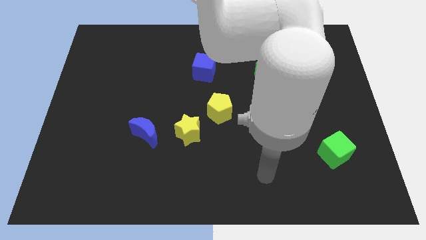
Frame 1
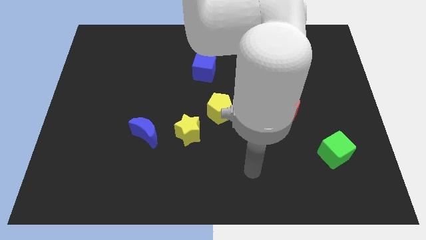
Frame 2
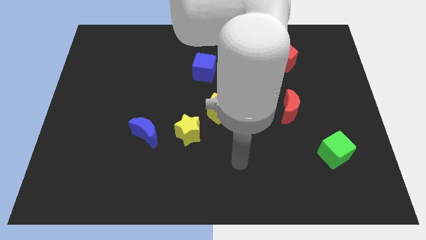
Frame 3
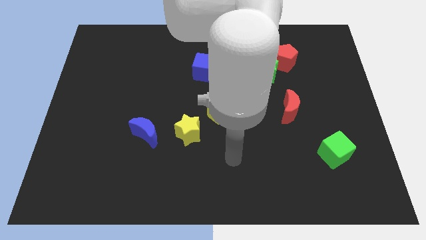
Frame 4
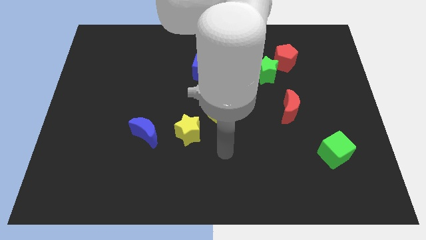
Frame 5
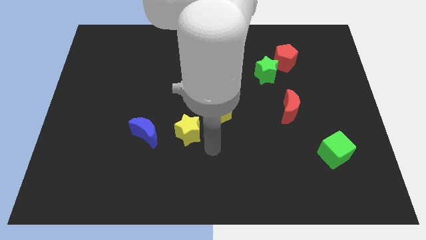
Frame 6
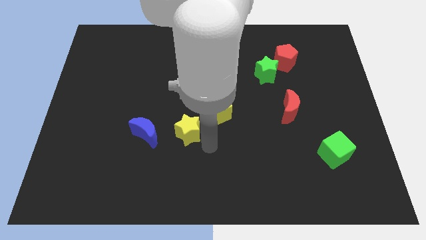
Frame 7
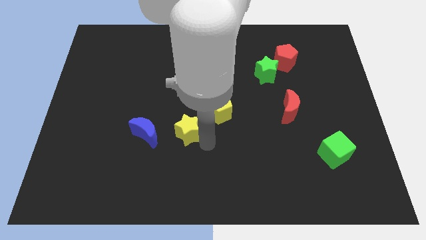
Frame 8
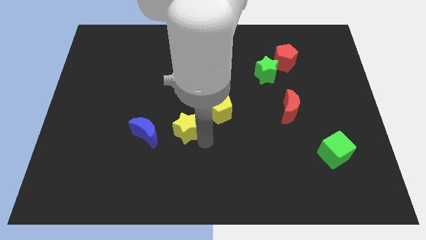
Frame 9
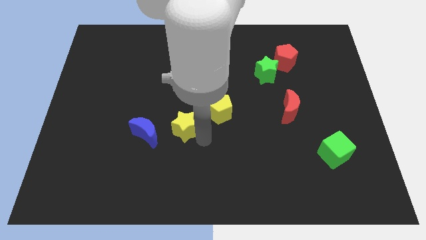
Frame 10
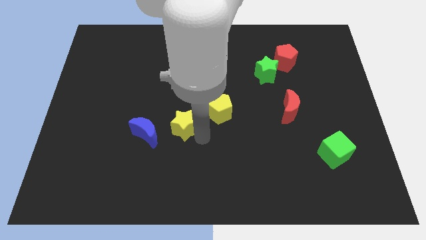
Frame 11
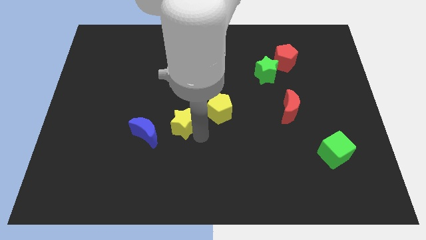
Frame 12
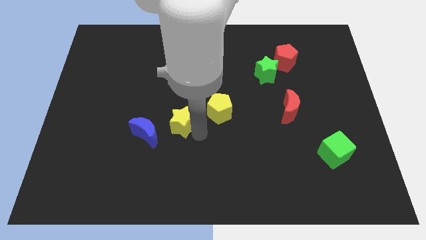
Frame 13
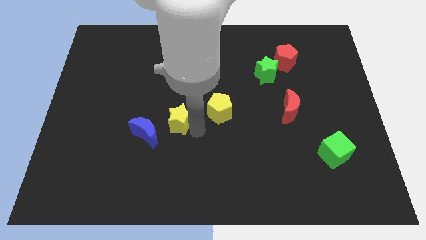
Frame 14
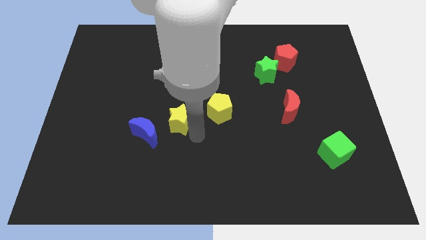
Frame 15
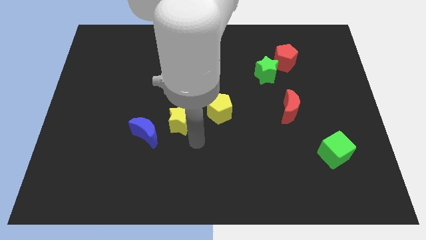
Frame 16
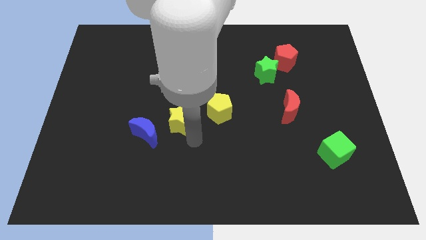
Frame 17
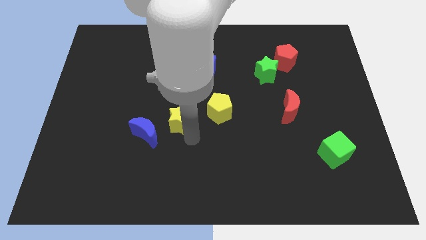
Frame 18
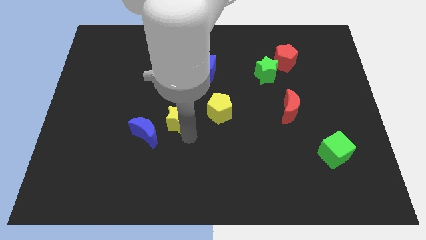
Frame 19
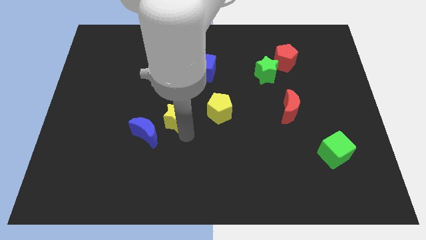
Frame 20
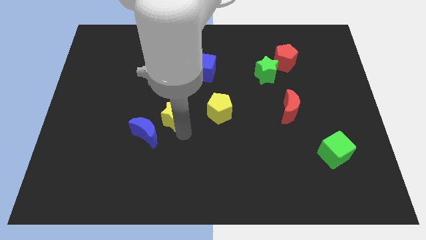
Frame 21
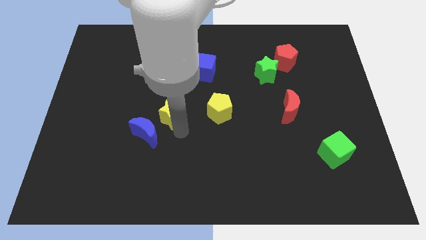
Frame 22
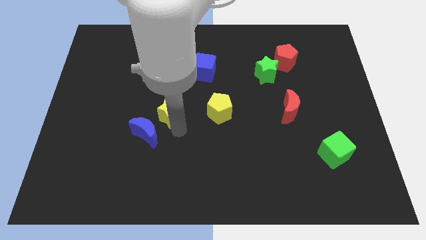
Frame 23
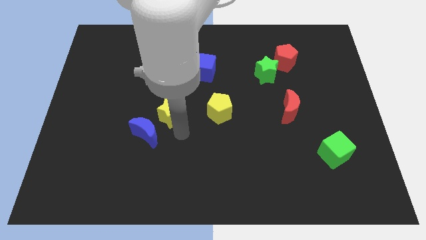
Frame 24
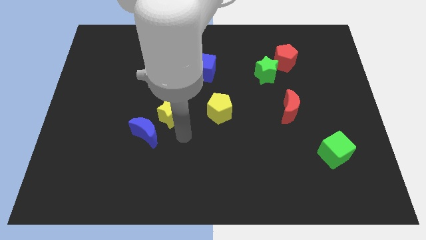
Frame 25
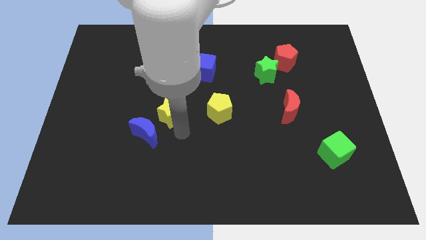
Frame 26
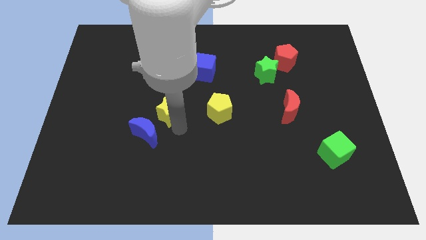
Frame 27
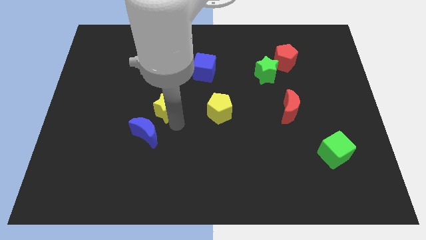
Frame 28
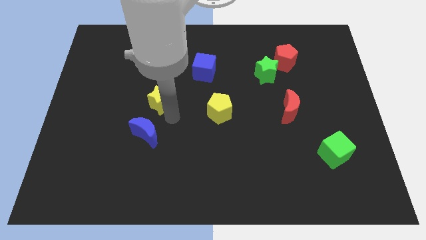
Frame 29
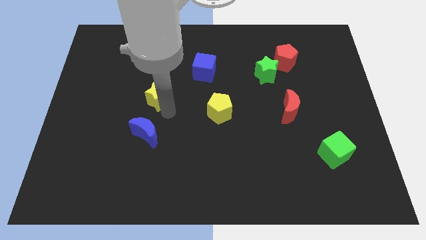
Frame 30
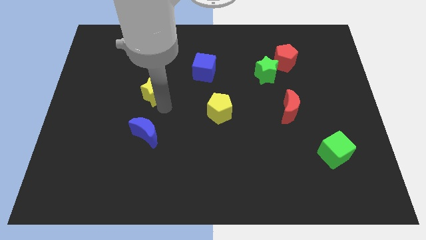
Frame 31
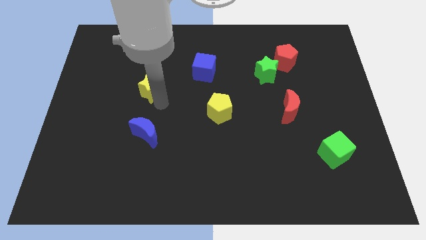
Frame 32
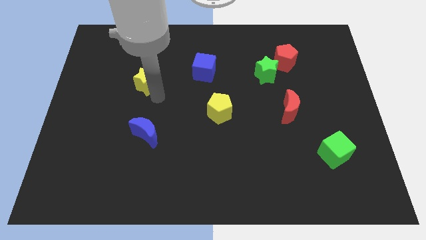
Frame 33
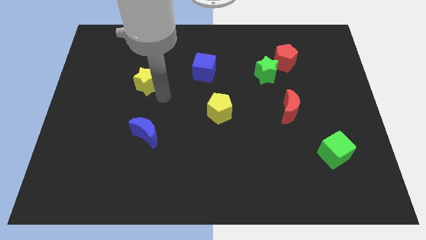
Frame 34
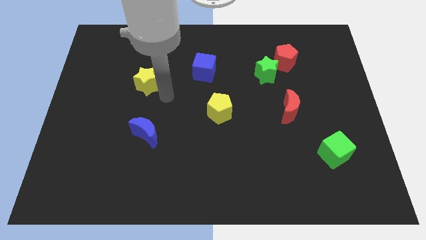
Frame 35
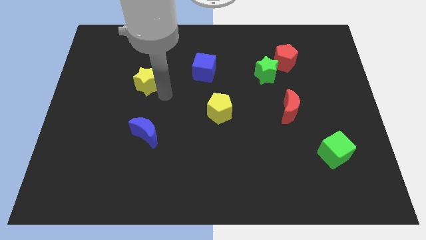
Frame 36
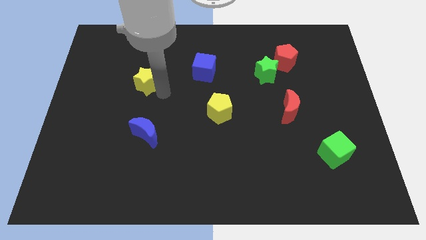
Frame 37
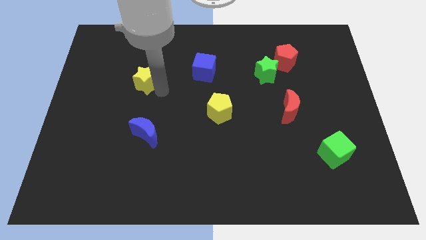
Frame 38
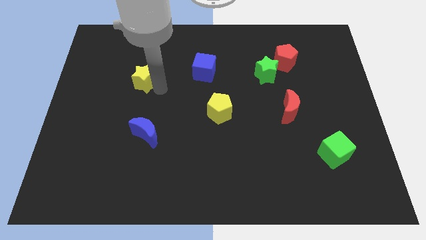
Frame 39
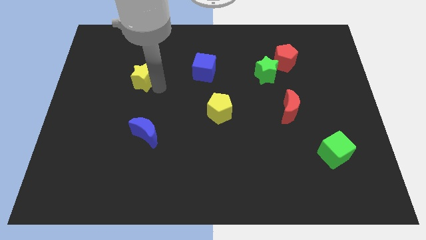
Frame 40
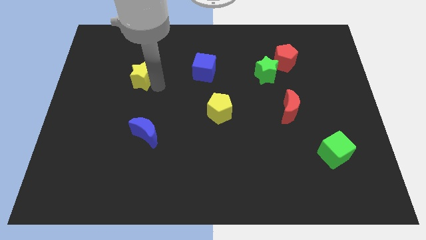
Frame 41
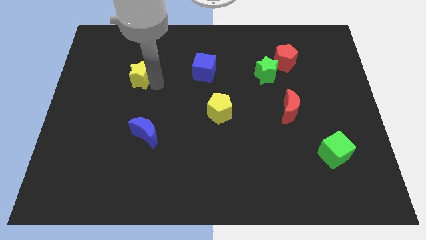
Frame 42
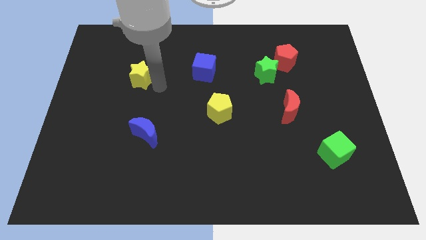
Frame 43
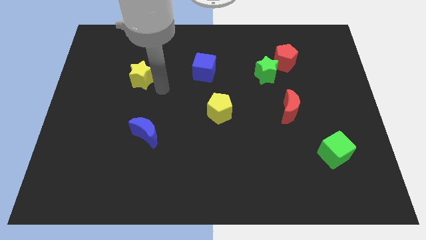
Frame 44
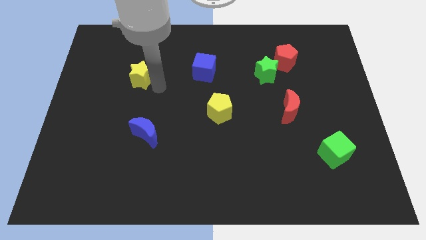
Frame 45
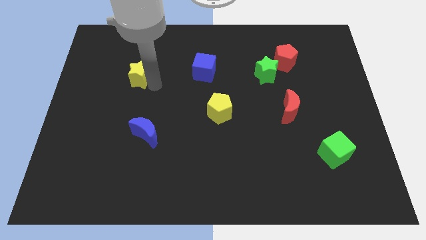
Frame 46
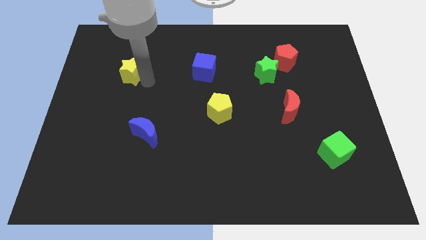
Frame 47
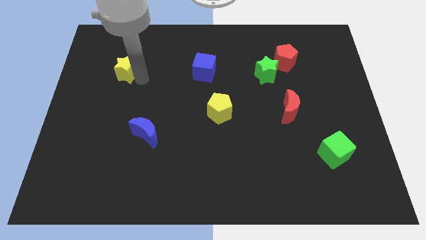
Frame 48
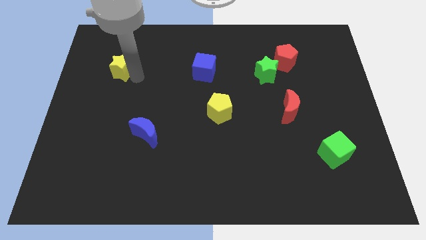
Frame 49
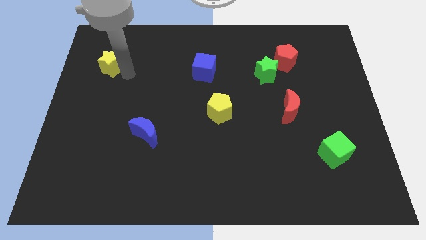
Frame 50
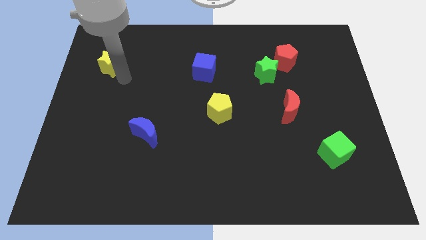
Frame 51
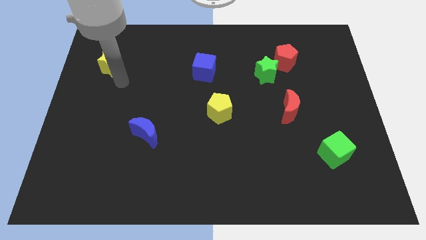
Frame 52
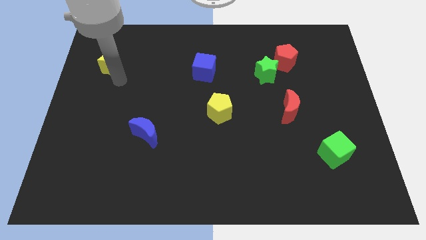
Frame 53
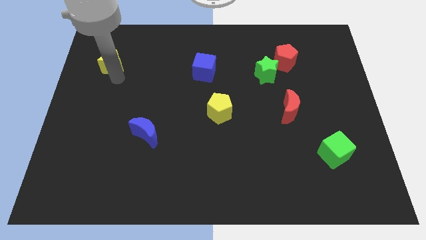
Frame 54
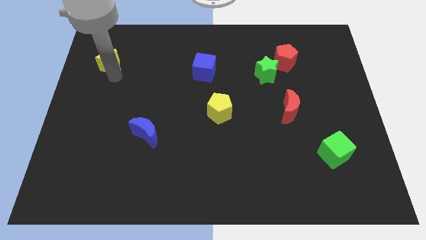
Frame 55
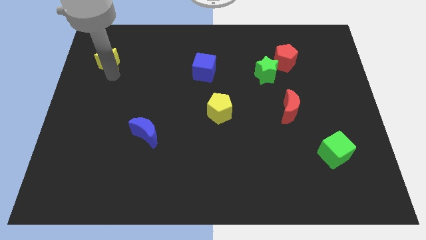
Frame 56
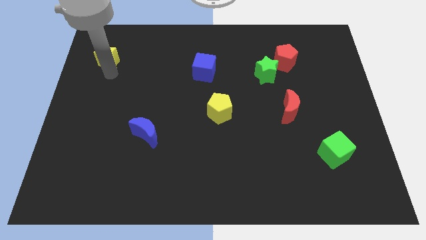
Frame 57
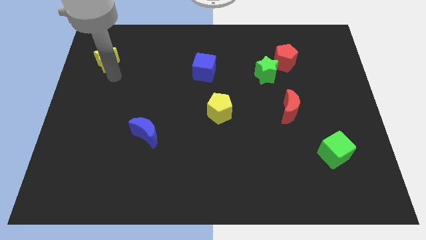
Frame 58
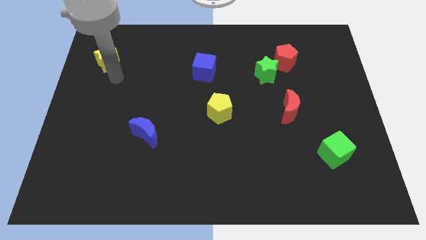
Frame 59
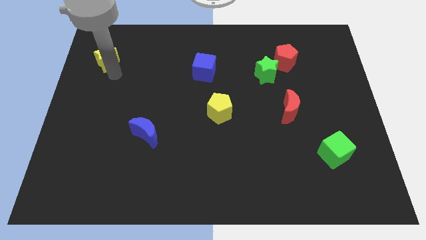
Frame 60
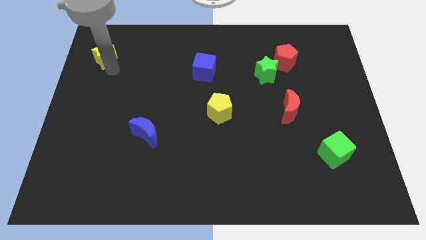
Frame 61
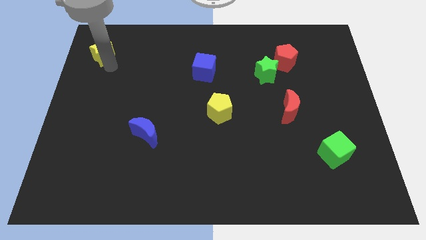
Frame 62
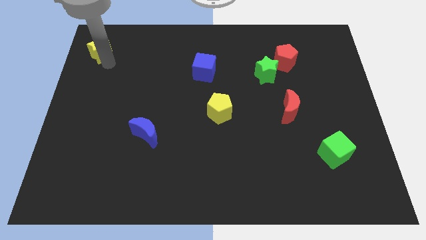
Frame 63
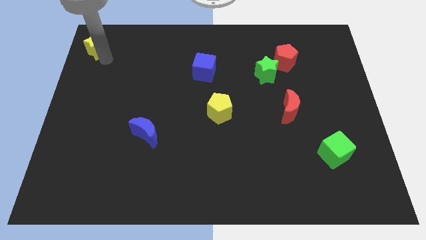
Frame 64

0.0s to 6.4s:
push the yellow star to the top left corner
